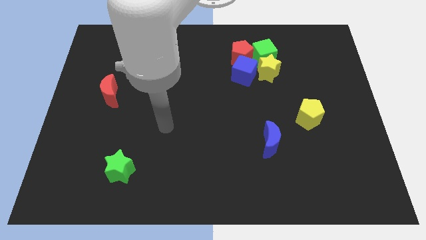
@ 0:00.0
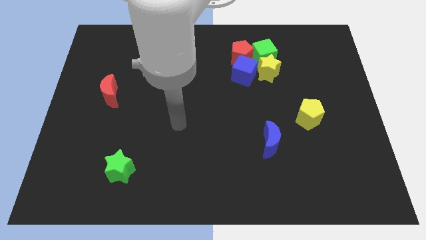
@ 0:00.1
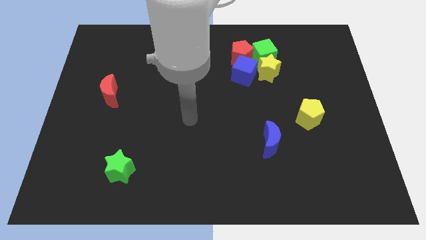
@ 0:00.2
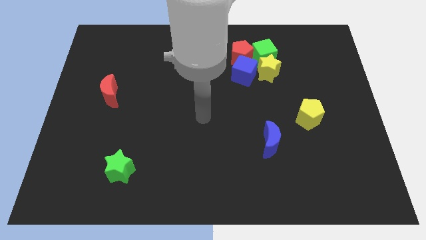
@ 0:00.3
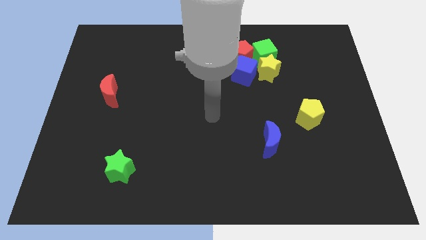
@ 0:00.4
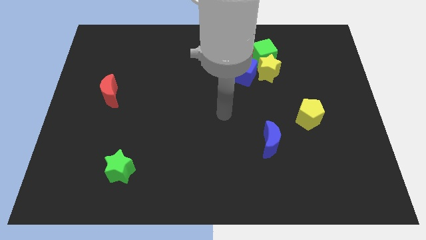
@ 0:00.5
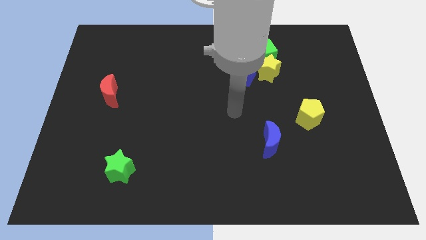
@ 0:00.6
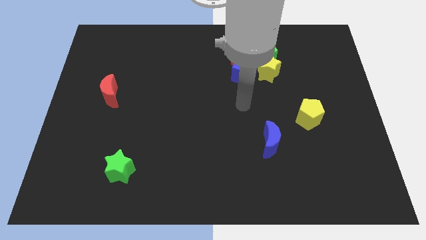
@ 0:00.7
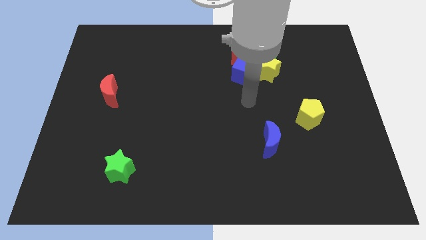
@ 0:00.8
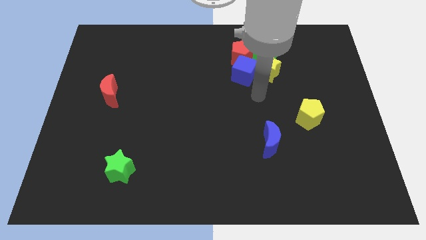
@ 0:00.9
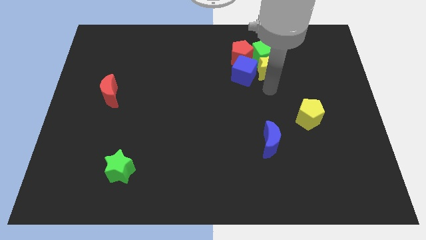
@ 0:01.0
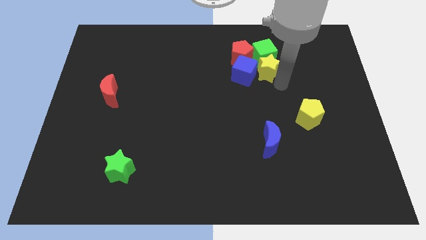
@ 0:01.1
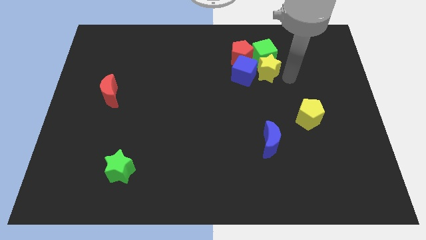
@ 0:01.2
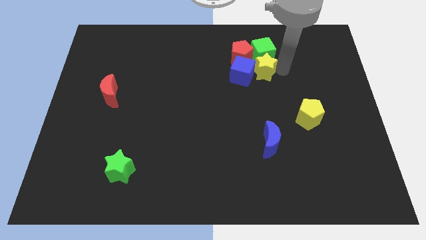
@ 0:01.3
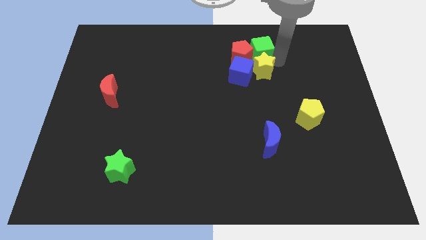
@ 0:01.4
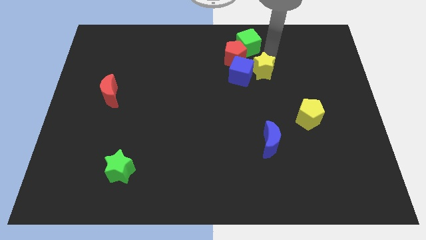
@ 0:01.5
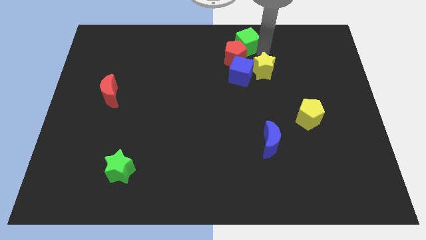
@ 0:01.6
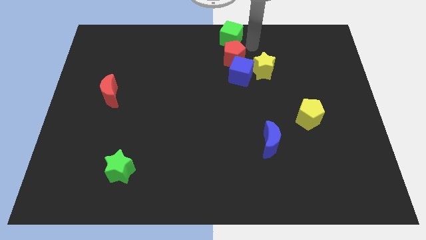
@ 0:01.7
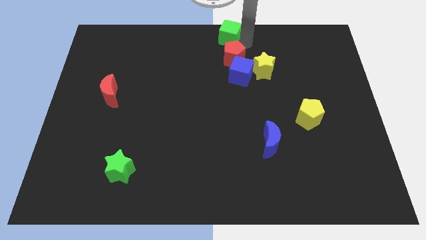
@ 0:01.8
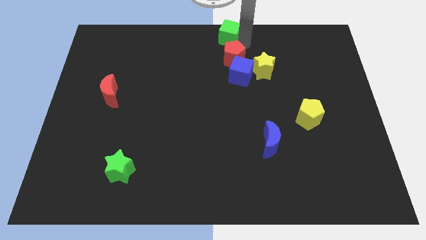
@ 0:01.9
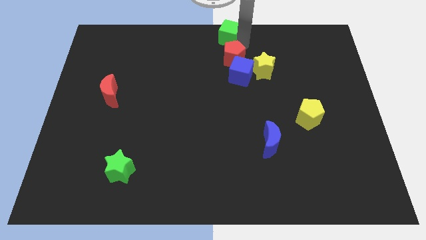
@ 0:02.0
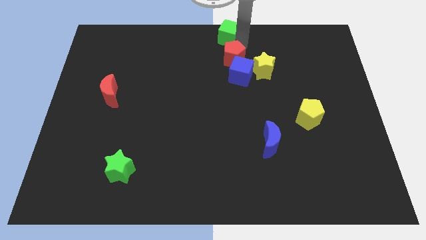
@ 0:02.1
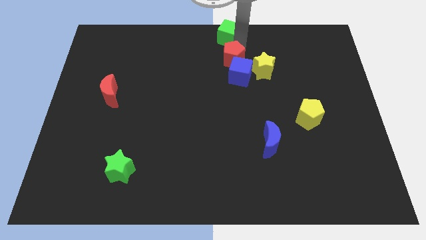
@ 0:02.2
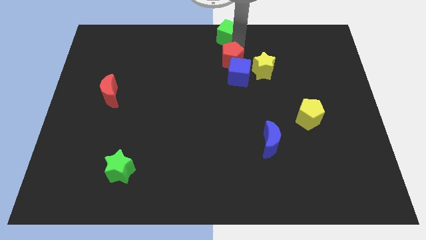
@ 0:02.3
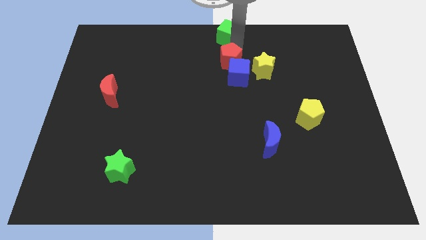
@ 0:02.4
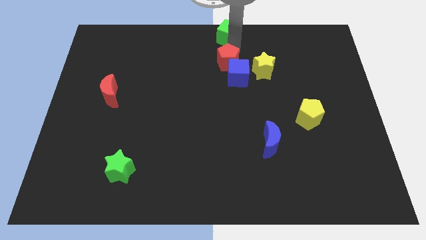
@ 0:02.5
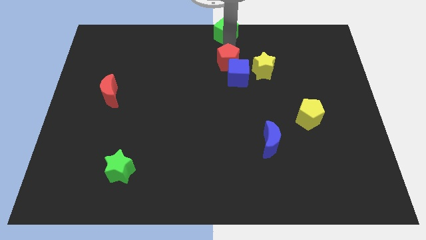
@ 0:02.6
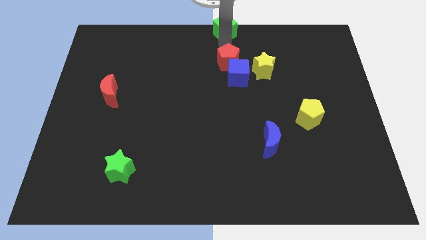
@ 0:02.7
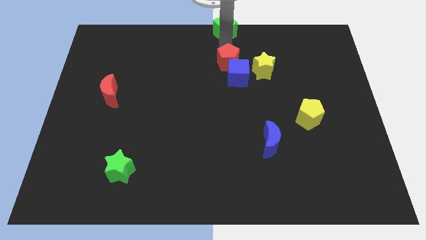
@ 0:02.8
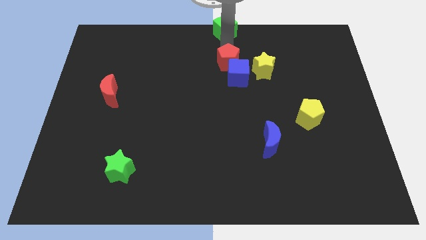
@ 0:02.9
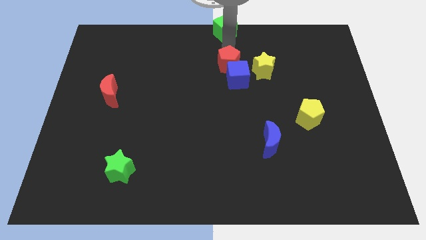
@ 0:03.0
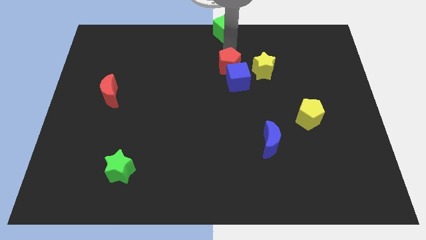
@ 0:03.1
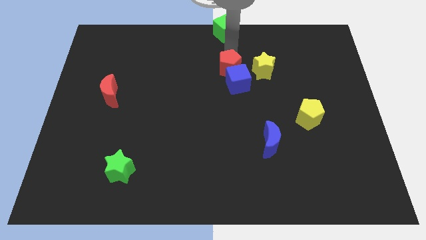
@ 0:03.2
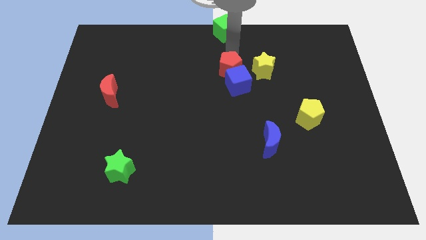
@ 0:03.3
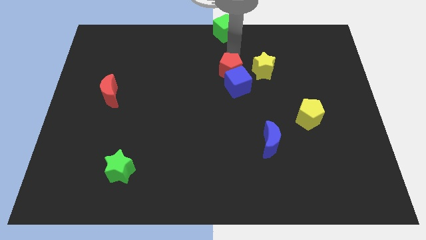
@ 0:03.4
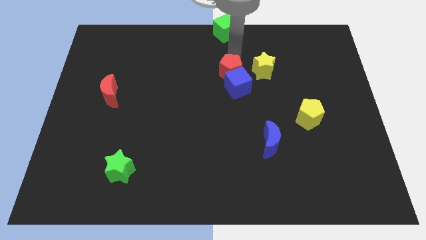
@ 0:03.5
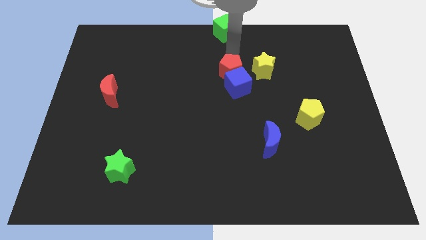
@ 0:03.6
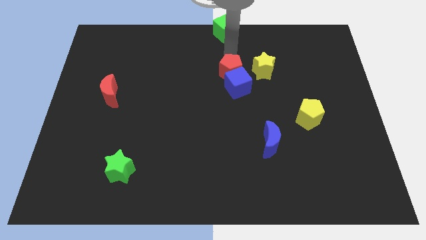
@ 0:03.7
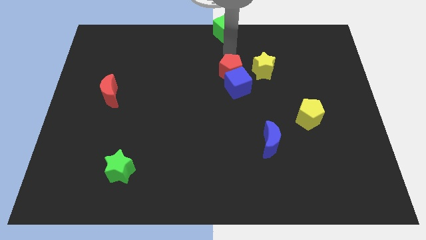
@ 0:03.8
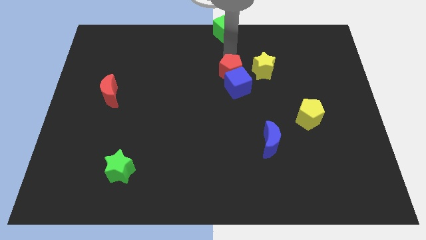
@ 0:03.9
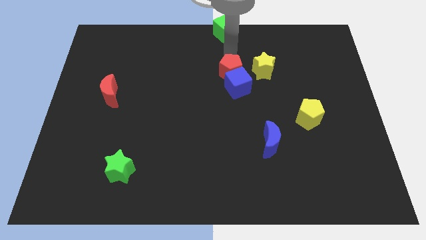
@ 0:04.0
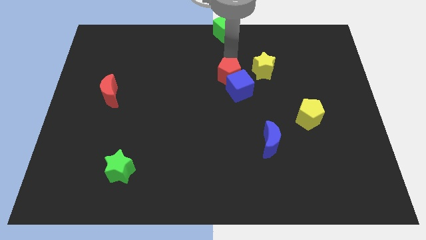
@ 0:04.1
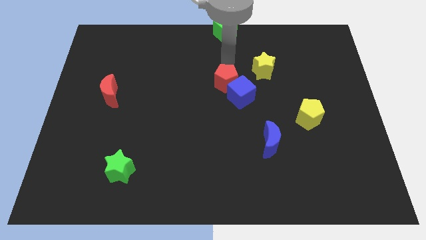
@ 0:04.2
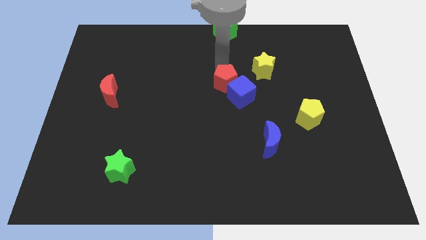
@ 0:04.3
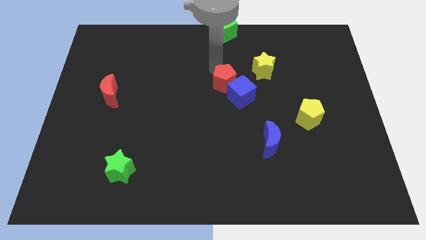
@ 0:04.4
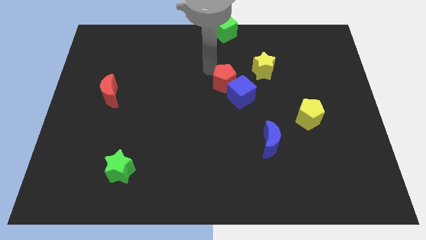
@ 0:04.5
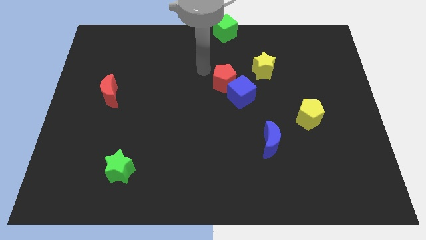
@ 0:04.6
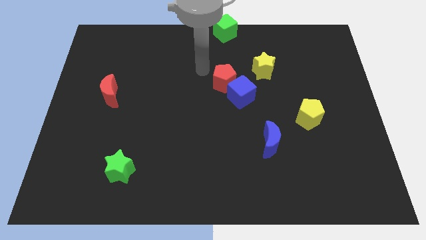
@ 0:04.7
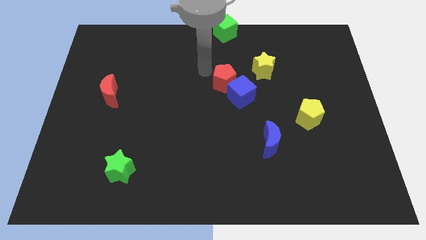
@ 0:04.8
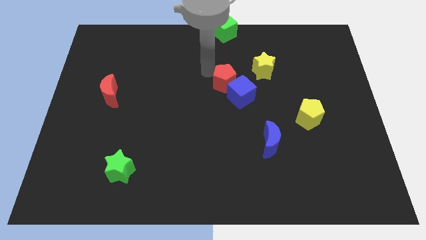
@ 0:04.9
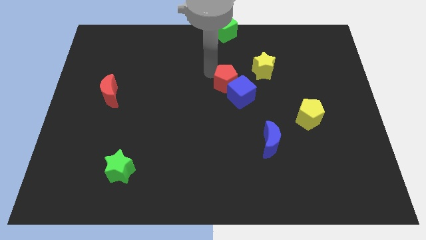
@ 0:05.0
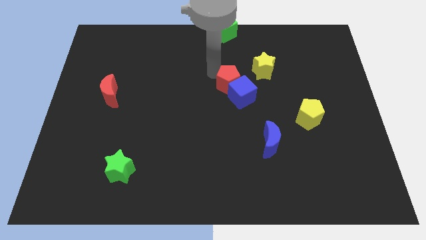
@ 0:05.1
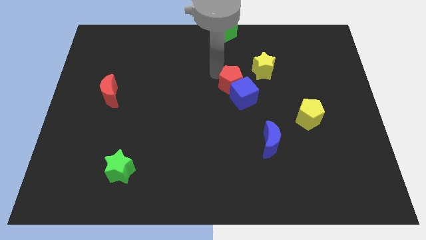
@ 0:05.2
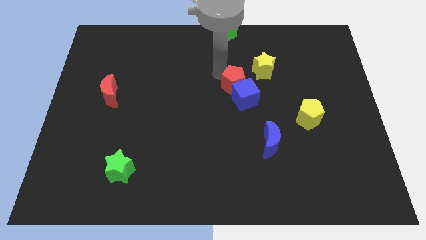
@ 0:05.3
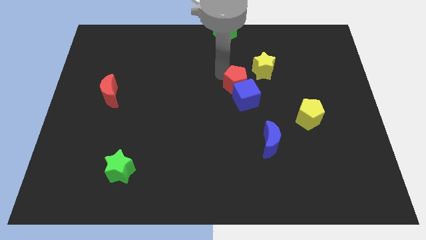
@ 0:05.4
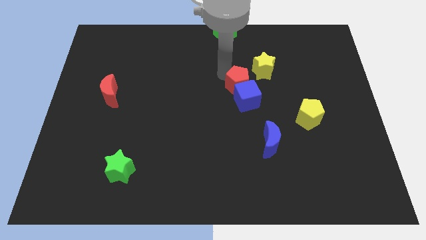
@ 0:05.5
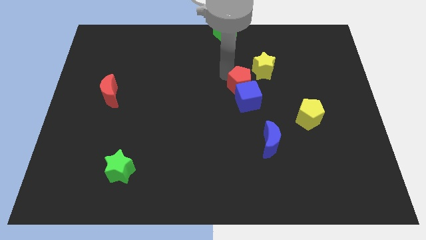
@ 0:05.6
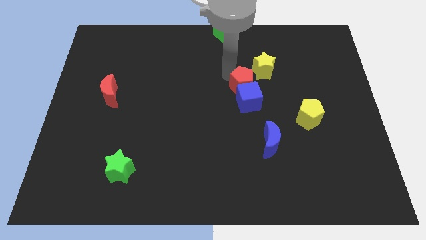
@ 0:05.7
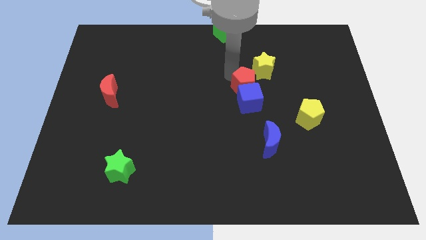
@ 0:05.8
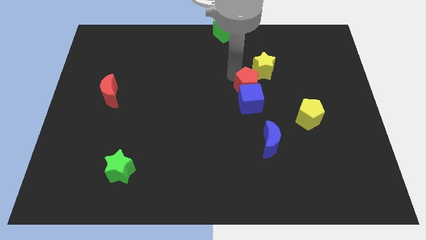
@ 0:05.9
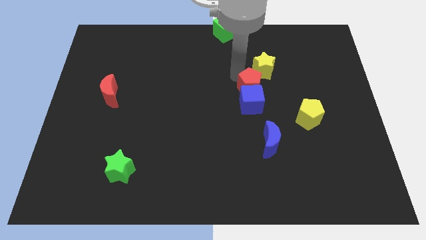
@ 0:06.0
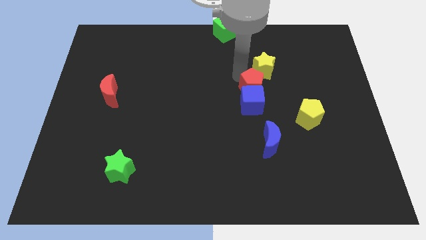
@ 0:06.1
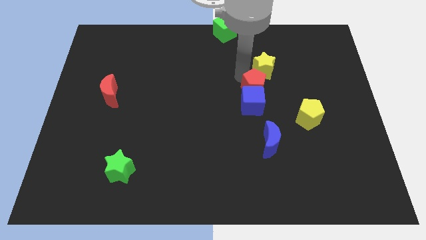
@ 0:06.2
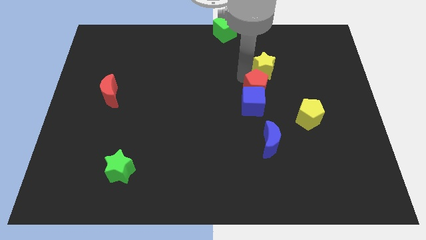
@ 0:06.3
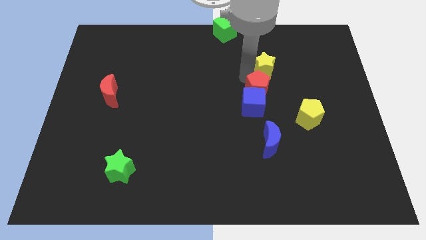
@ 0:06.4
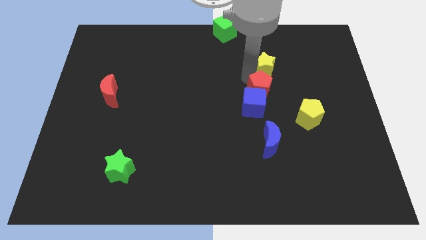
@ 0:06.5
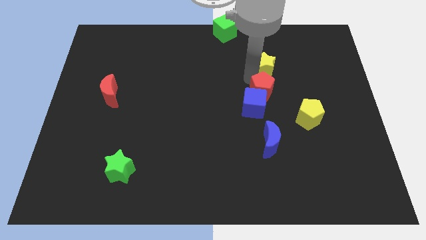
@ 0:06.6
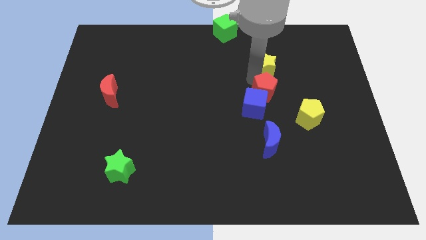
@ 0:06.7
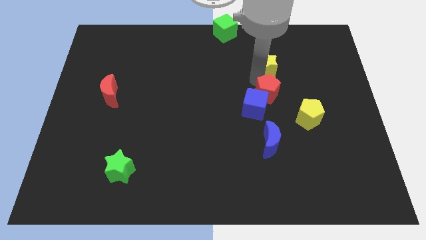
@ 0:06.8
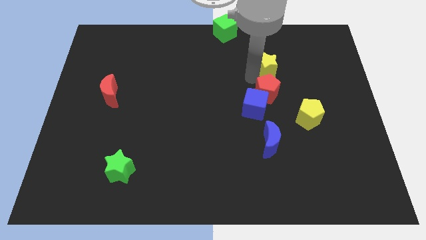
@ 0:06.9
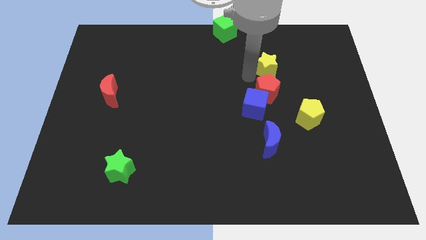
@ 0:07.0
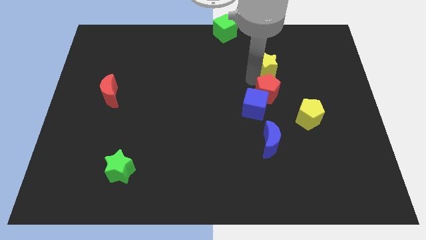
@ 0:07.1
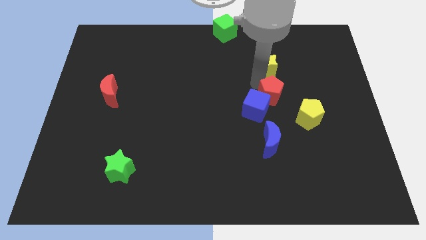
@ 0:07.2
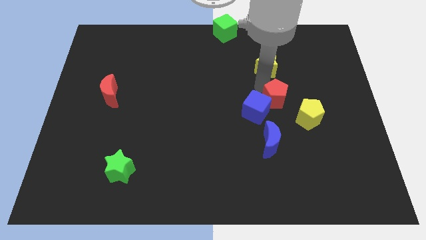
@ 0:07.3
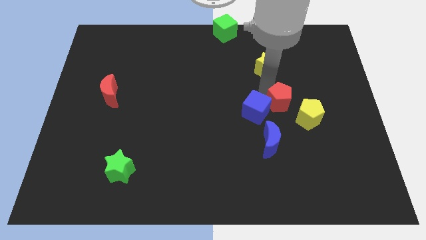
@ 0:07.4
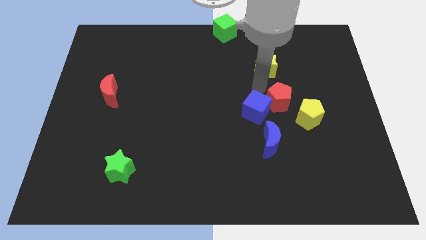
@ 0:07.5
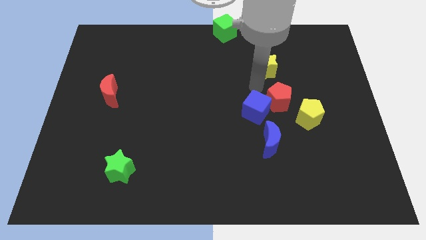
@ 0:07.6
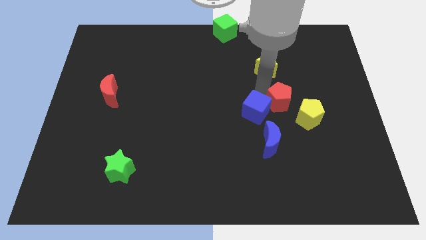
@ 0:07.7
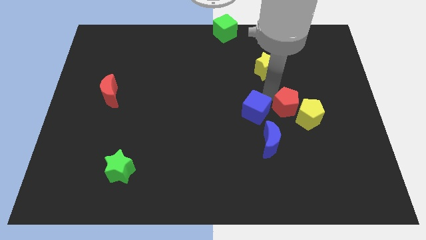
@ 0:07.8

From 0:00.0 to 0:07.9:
move the red pentagon towards the yellow pentagon

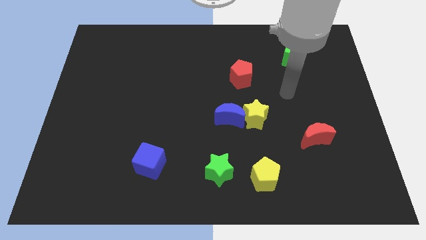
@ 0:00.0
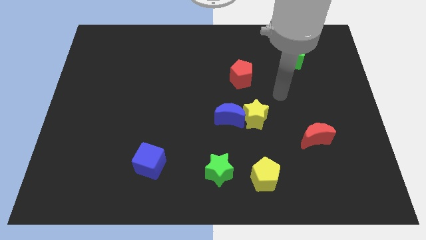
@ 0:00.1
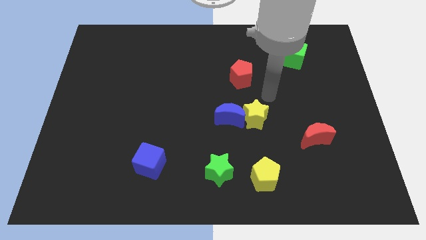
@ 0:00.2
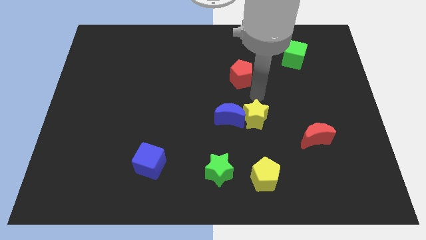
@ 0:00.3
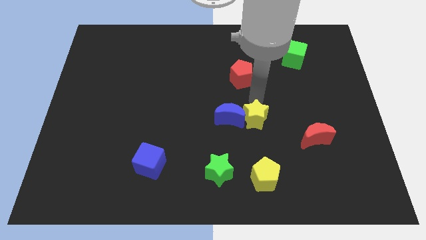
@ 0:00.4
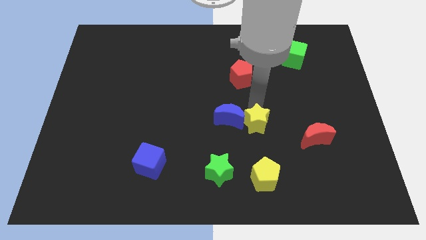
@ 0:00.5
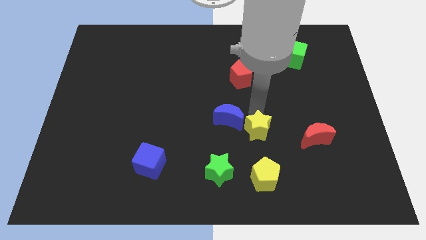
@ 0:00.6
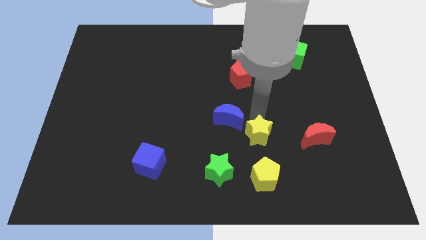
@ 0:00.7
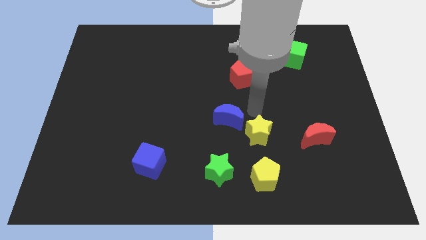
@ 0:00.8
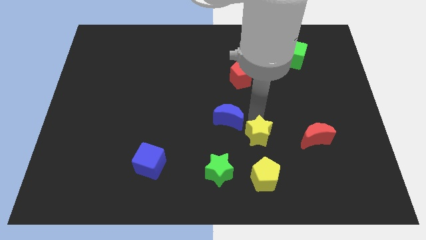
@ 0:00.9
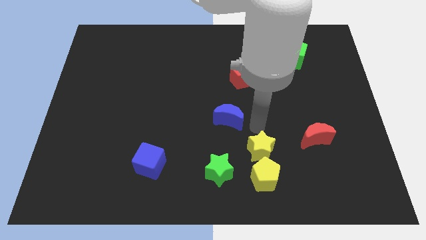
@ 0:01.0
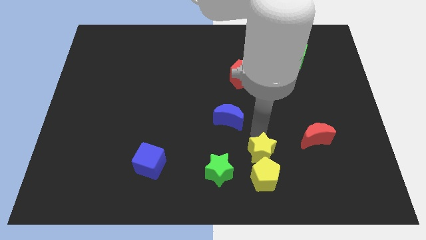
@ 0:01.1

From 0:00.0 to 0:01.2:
put the yellow star to the yellow pentagon
